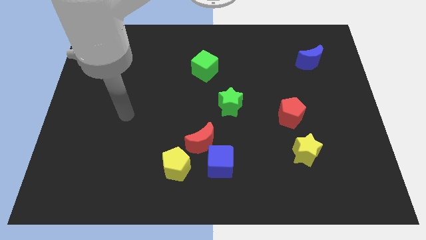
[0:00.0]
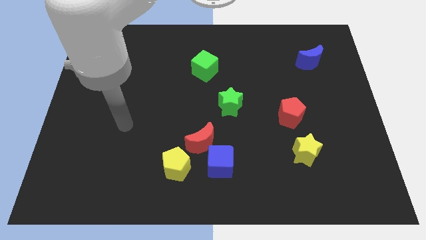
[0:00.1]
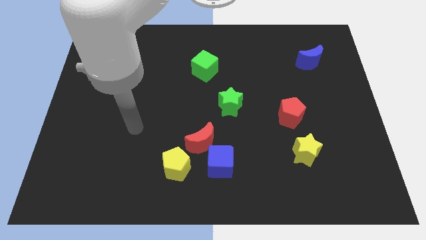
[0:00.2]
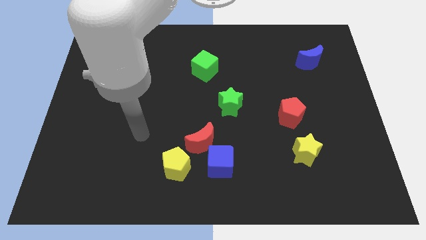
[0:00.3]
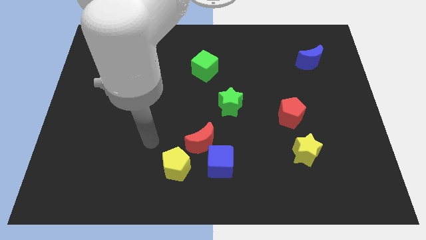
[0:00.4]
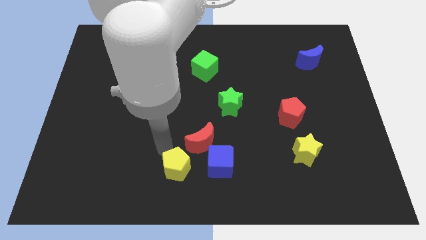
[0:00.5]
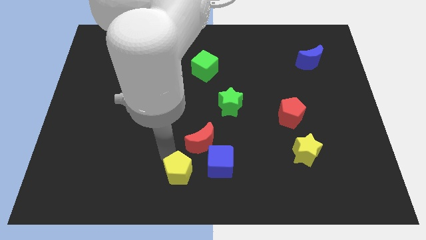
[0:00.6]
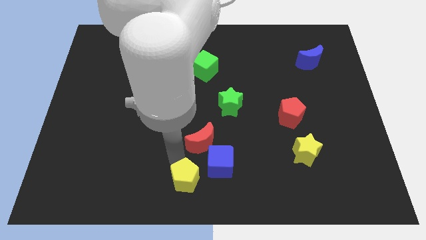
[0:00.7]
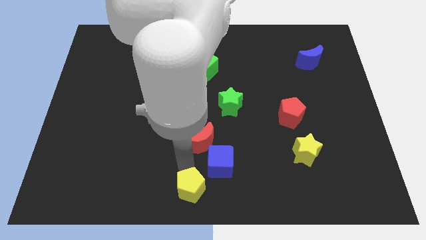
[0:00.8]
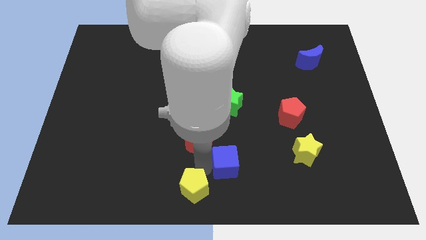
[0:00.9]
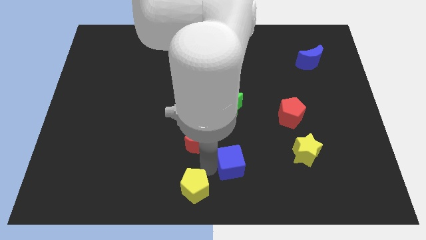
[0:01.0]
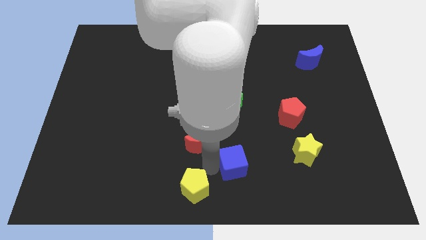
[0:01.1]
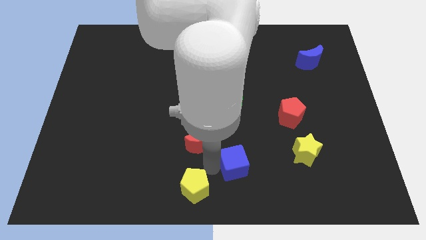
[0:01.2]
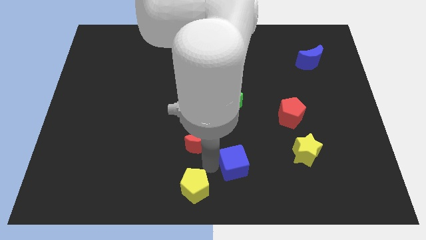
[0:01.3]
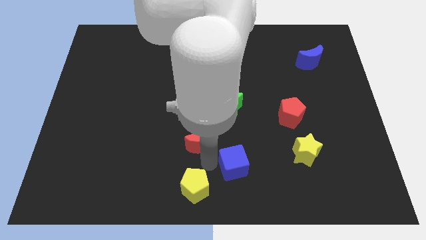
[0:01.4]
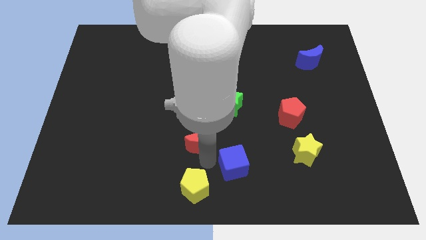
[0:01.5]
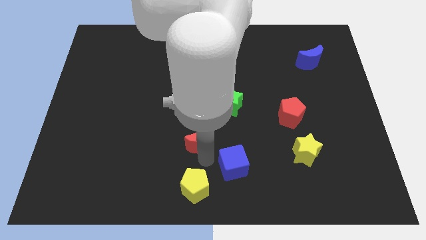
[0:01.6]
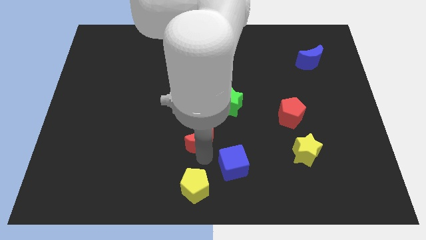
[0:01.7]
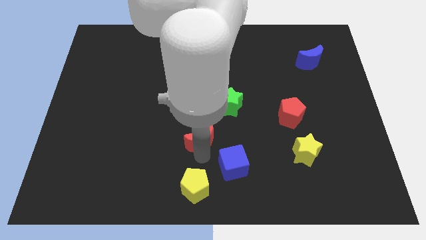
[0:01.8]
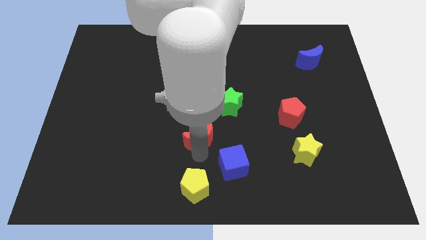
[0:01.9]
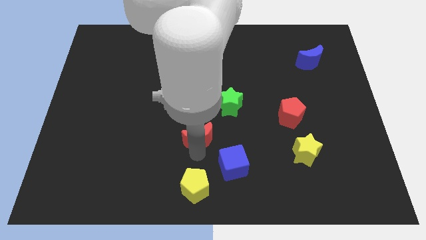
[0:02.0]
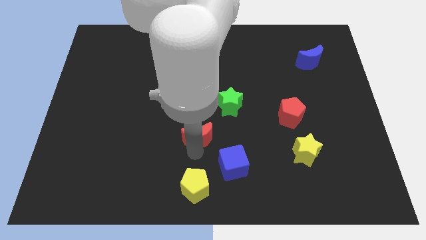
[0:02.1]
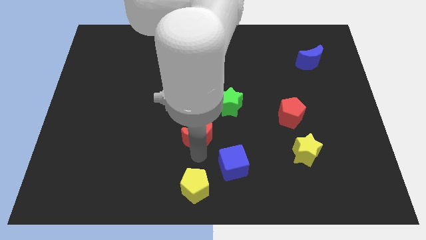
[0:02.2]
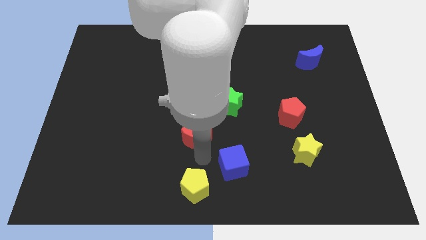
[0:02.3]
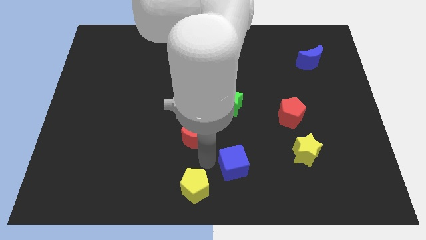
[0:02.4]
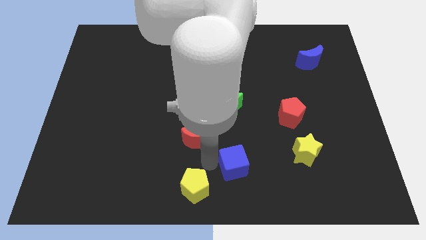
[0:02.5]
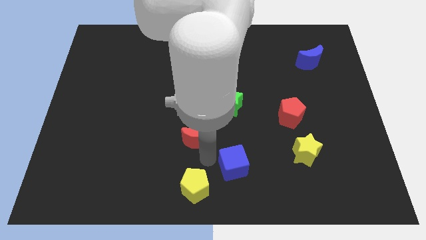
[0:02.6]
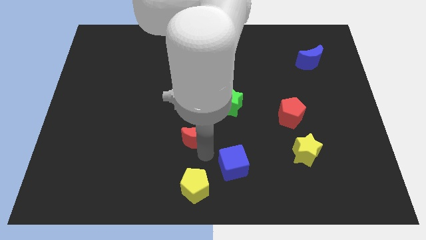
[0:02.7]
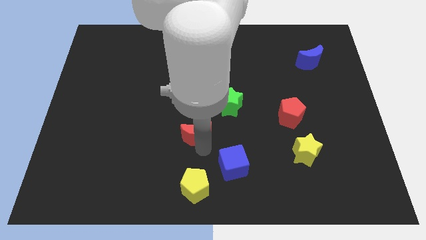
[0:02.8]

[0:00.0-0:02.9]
separate the red moon from the blue cube and yellow pentagon

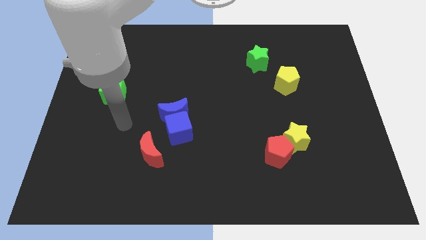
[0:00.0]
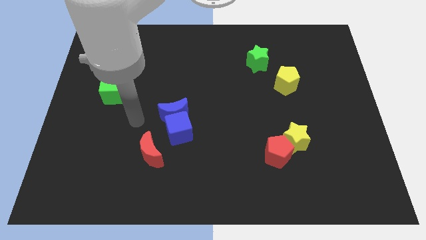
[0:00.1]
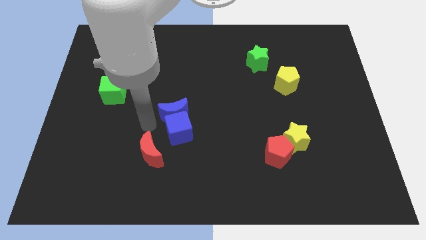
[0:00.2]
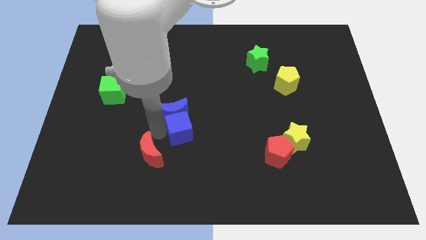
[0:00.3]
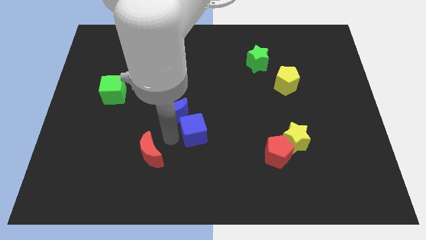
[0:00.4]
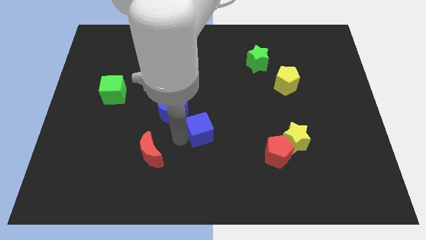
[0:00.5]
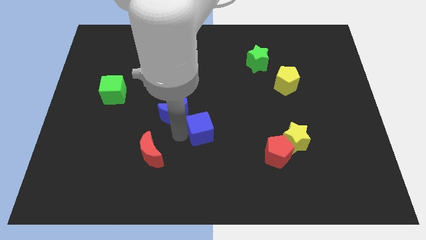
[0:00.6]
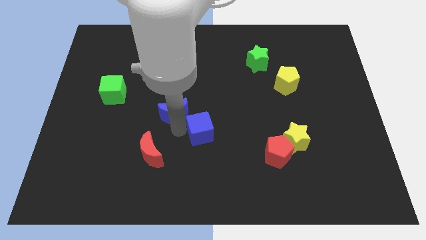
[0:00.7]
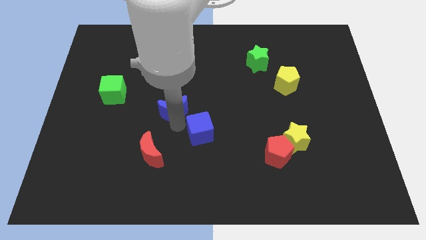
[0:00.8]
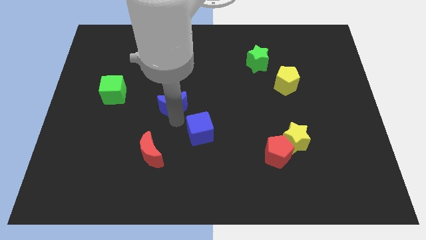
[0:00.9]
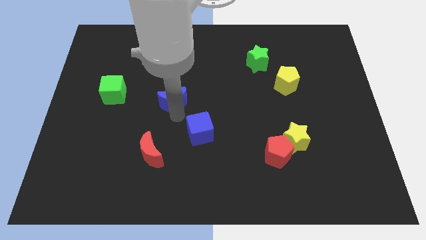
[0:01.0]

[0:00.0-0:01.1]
pull the blue moon apart from the blue cube

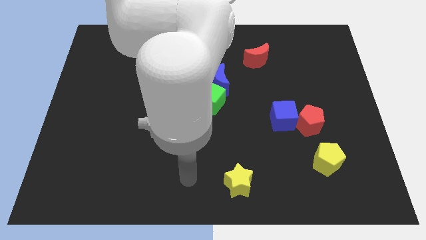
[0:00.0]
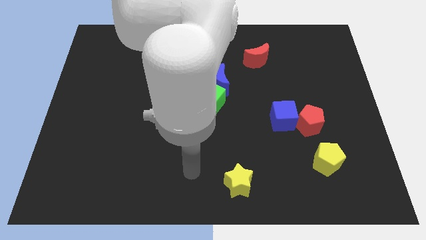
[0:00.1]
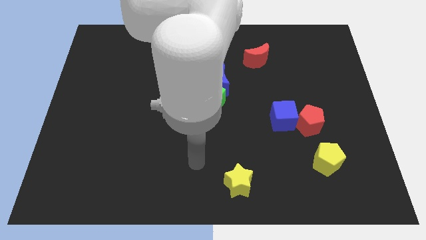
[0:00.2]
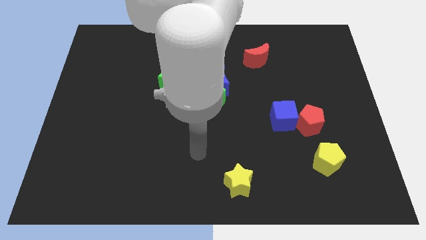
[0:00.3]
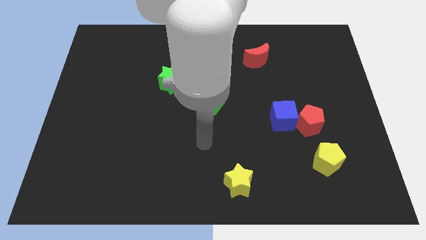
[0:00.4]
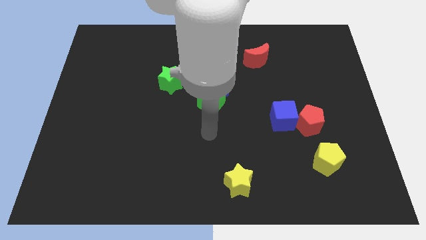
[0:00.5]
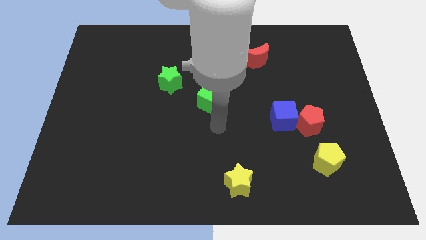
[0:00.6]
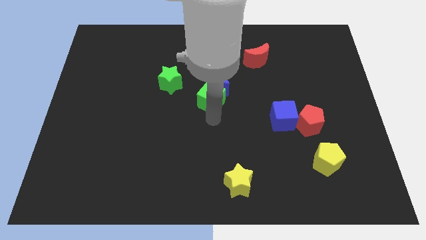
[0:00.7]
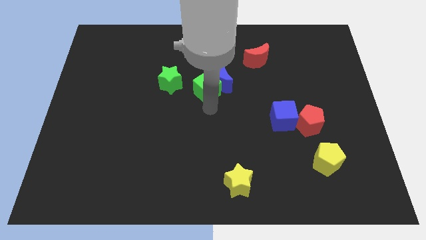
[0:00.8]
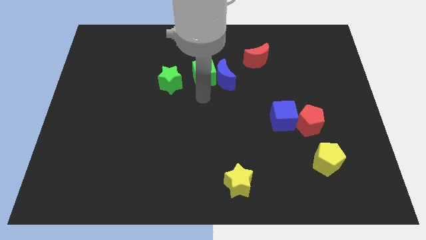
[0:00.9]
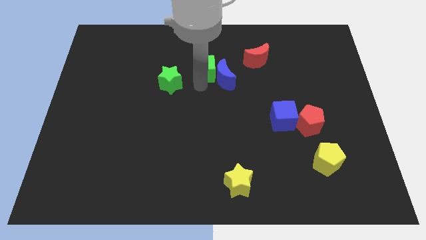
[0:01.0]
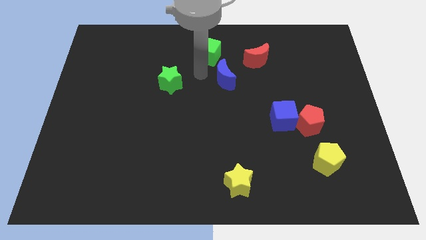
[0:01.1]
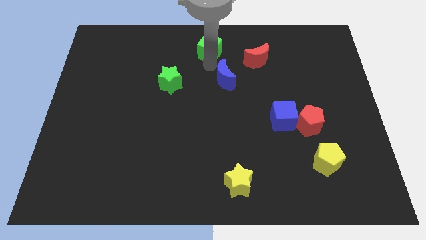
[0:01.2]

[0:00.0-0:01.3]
pull the blue moon apart from the green cube

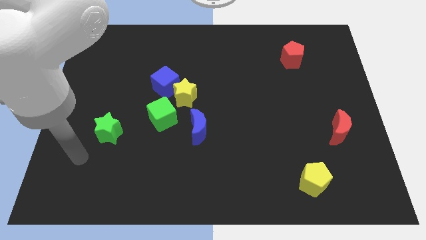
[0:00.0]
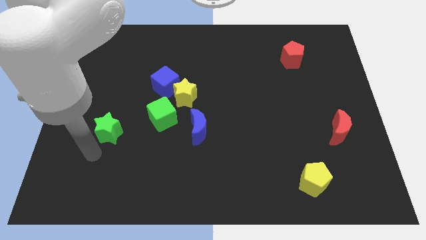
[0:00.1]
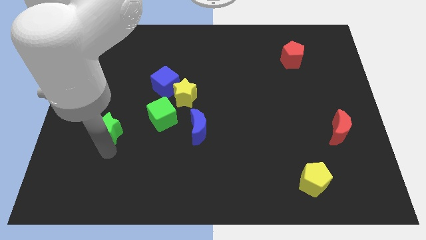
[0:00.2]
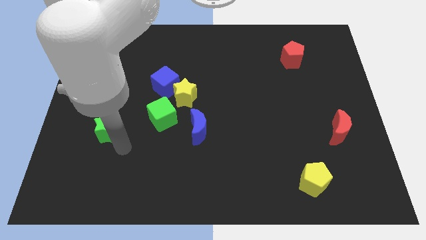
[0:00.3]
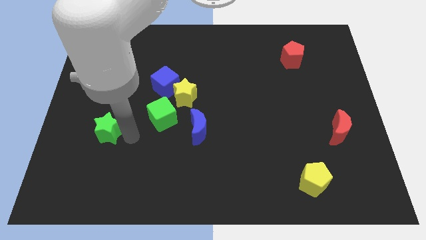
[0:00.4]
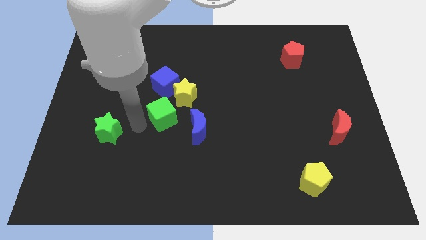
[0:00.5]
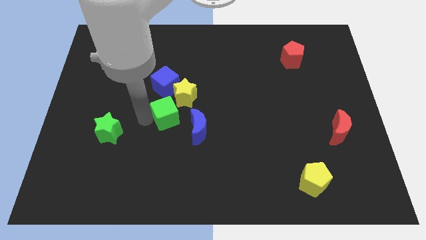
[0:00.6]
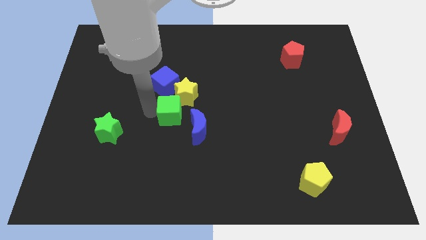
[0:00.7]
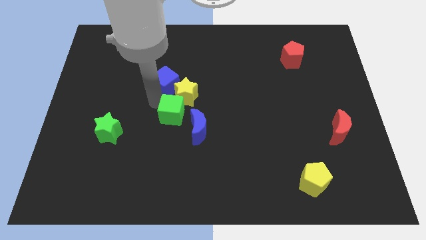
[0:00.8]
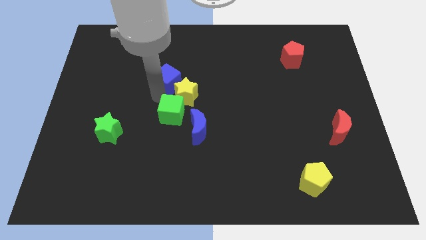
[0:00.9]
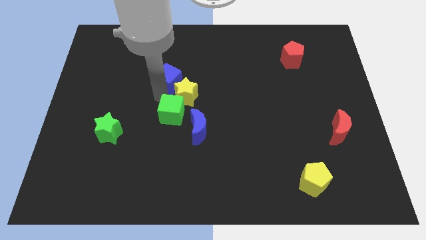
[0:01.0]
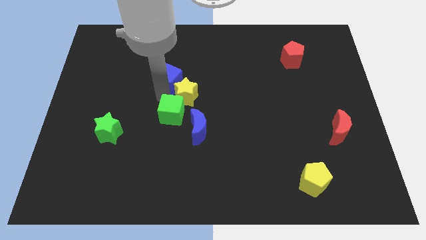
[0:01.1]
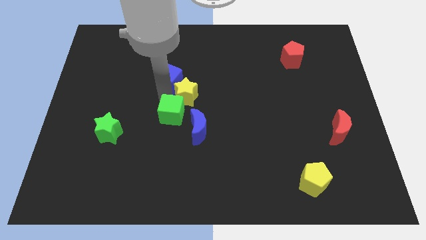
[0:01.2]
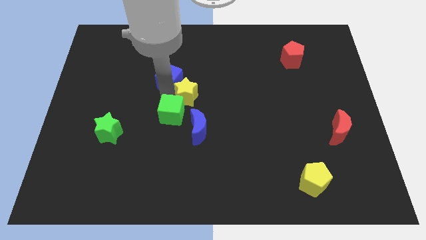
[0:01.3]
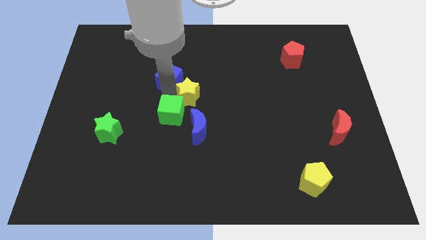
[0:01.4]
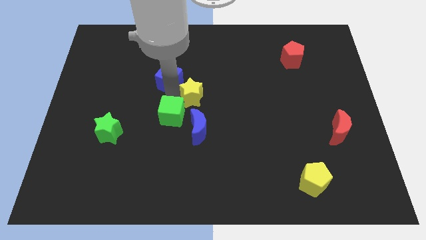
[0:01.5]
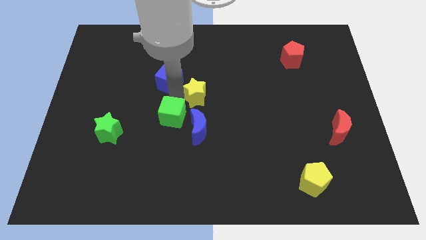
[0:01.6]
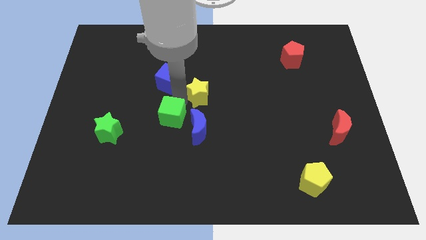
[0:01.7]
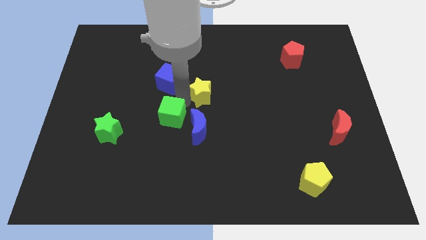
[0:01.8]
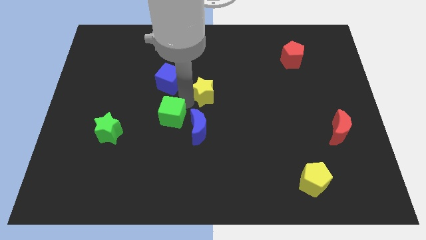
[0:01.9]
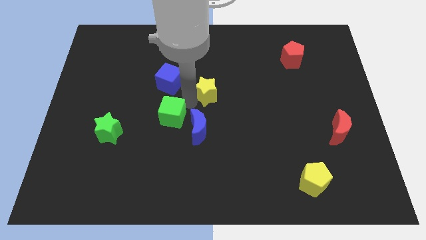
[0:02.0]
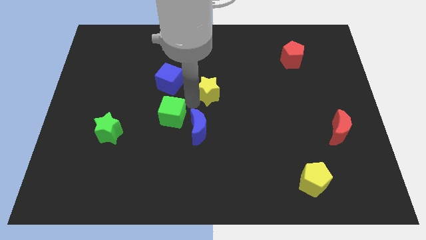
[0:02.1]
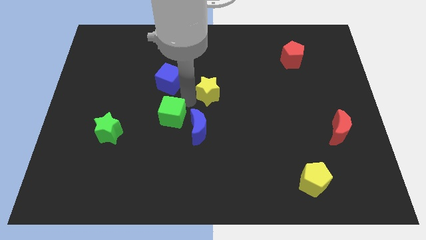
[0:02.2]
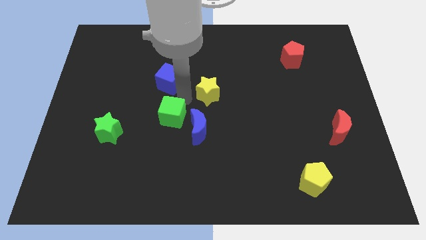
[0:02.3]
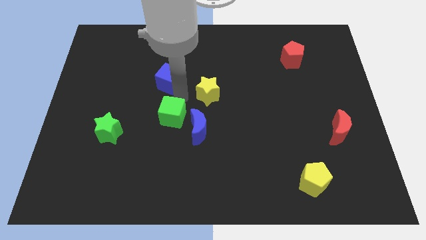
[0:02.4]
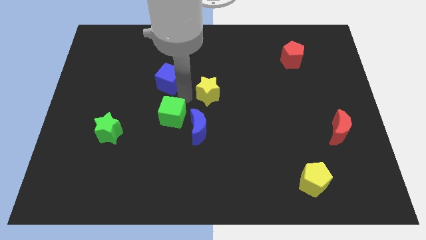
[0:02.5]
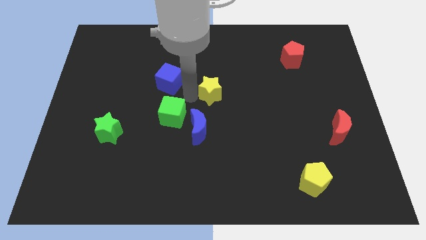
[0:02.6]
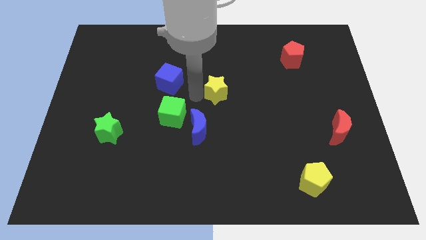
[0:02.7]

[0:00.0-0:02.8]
separate the yellow star from the blue cube and green cube

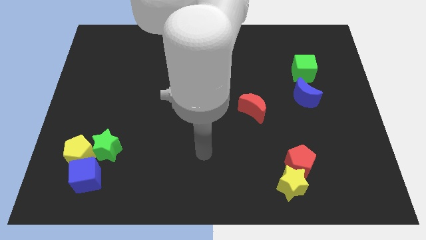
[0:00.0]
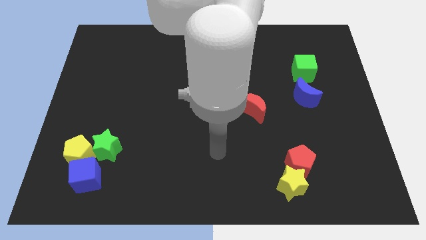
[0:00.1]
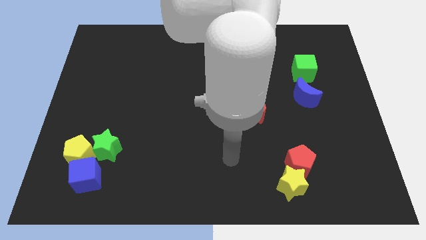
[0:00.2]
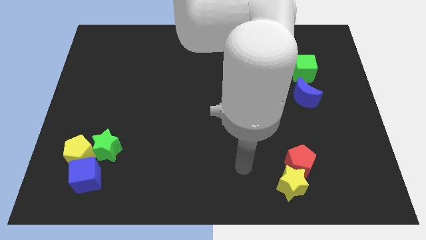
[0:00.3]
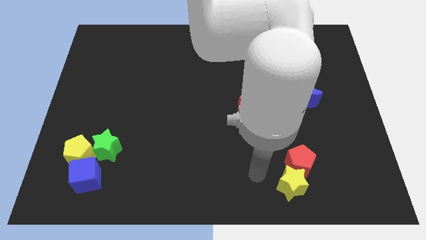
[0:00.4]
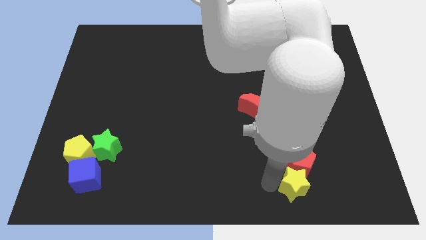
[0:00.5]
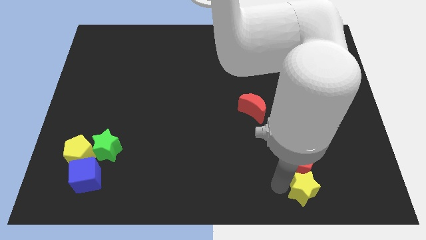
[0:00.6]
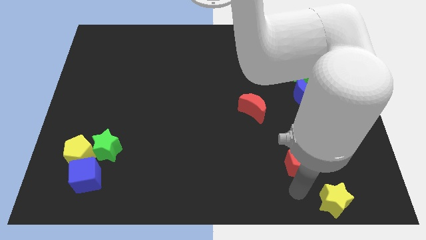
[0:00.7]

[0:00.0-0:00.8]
pull the red pentagon apart from the yellow star

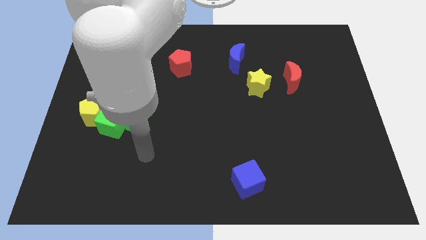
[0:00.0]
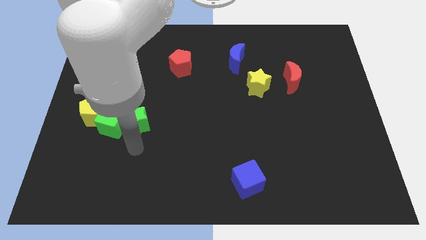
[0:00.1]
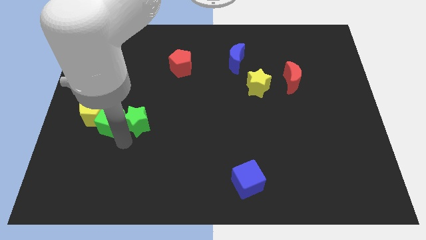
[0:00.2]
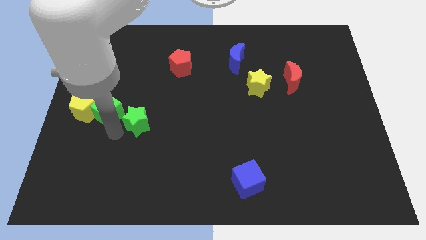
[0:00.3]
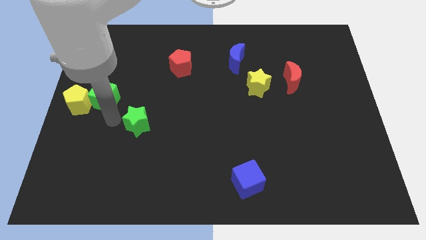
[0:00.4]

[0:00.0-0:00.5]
separate the green star from the green cube
